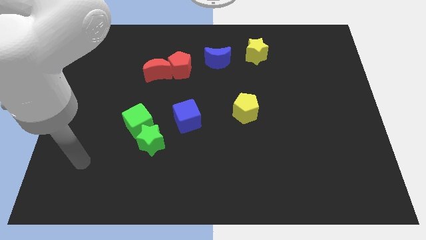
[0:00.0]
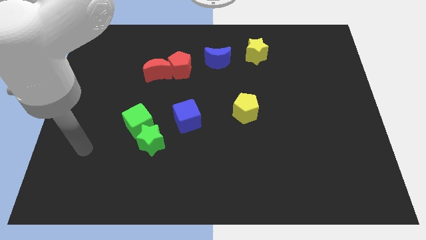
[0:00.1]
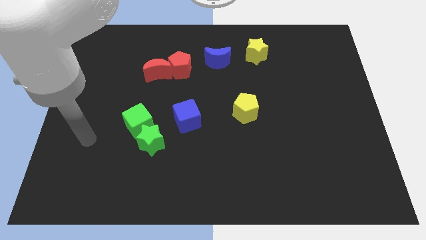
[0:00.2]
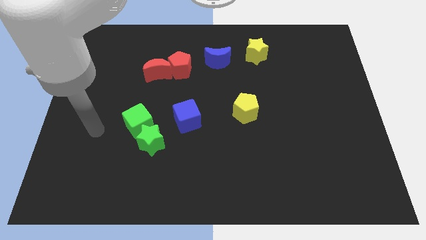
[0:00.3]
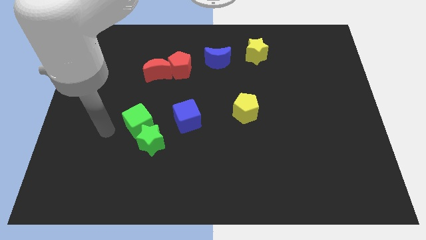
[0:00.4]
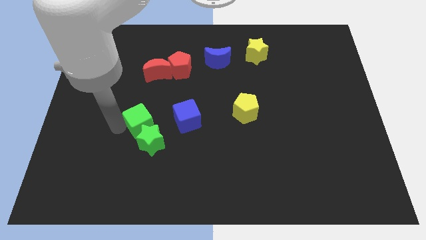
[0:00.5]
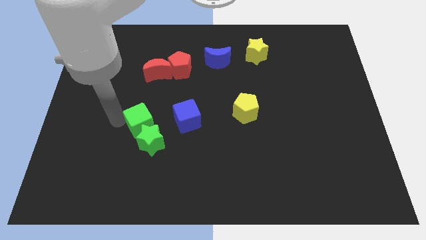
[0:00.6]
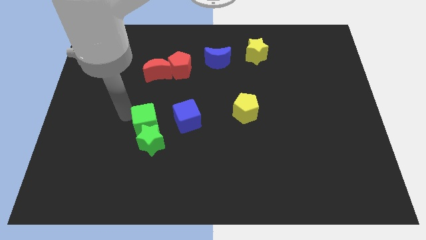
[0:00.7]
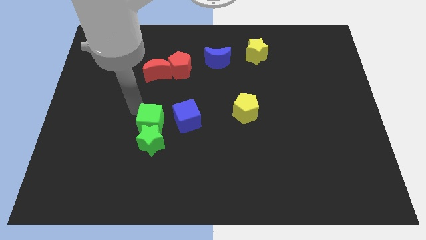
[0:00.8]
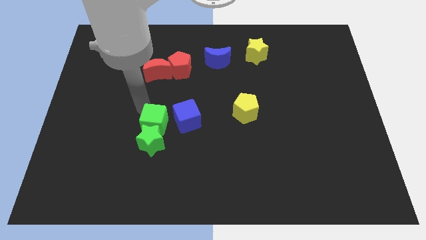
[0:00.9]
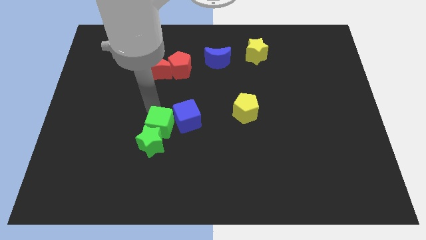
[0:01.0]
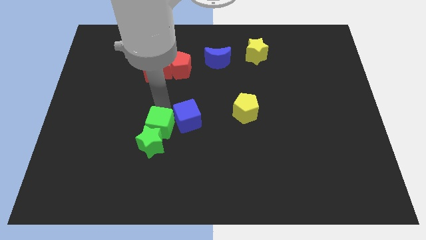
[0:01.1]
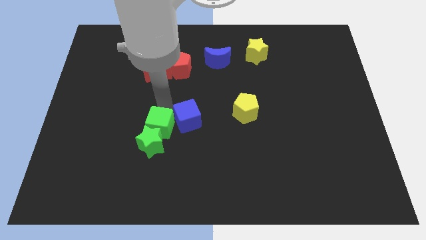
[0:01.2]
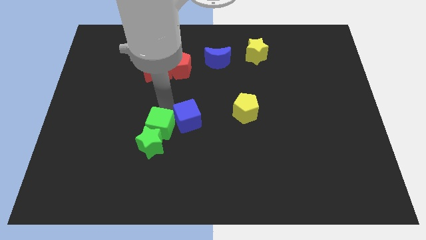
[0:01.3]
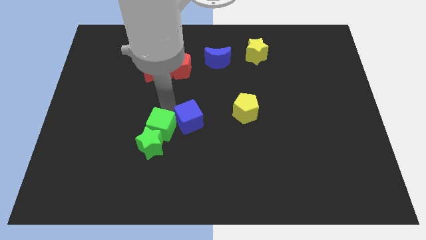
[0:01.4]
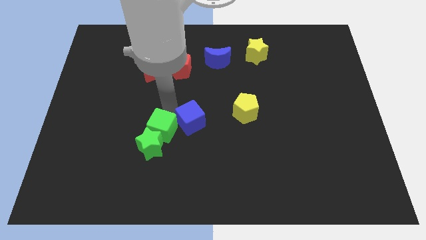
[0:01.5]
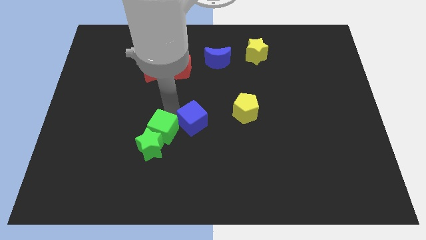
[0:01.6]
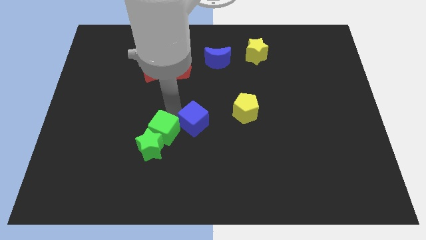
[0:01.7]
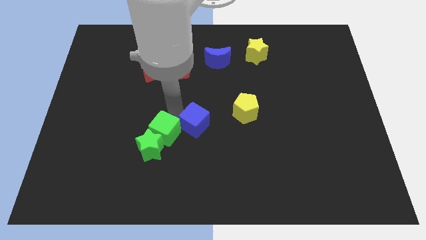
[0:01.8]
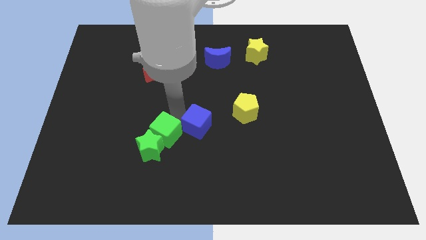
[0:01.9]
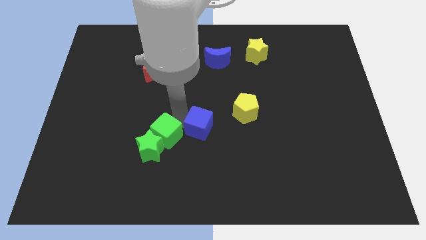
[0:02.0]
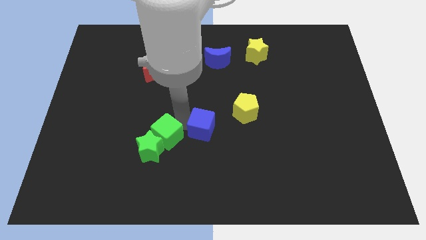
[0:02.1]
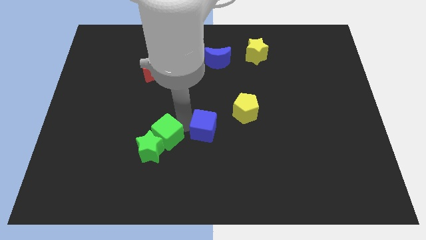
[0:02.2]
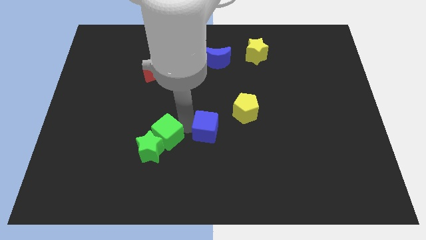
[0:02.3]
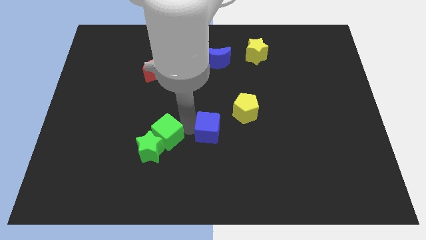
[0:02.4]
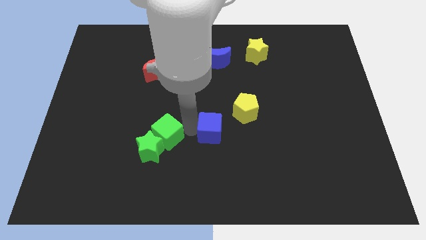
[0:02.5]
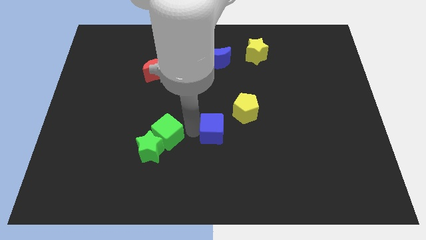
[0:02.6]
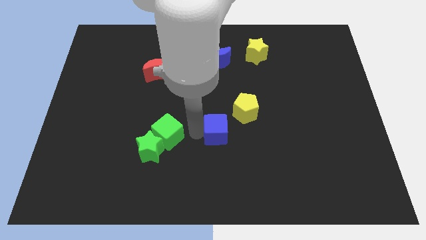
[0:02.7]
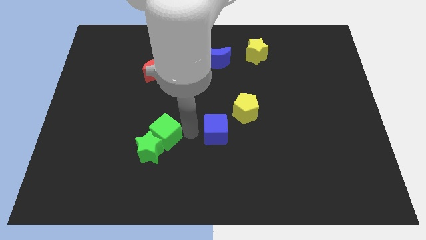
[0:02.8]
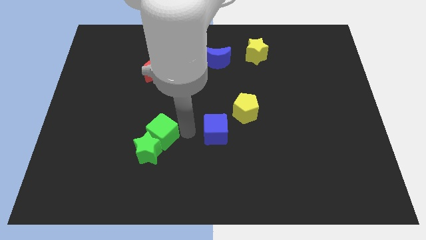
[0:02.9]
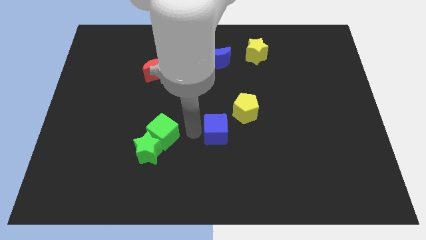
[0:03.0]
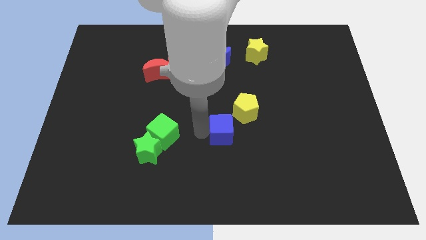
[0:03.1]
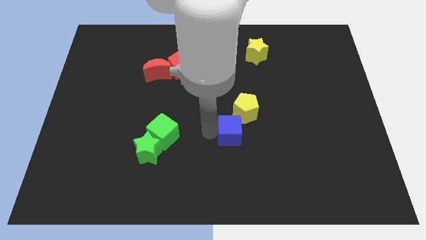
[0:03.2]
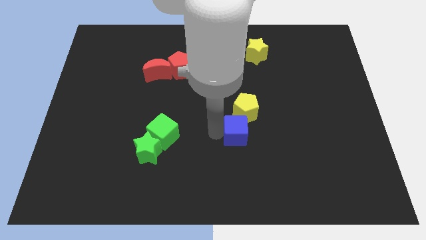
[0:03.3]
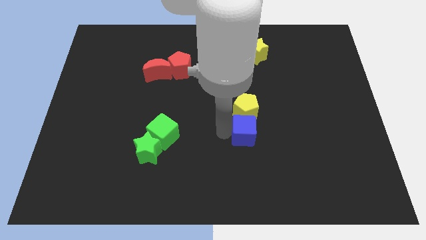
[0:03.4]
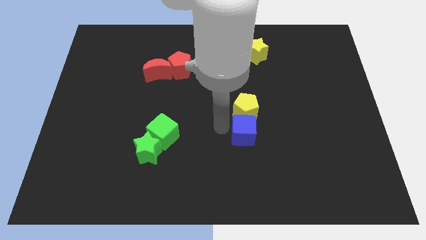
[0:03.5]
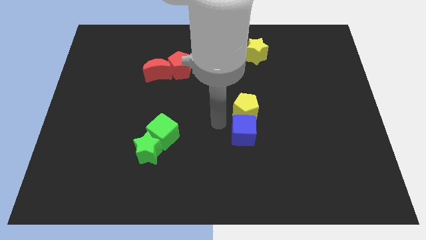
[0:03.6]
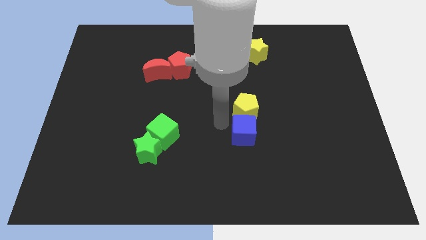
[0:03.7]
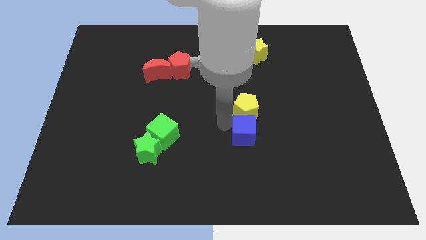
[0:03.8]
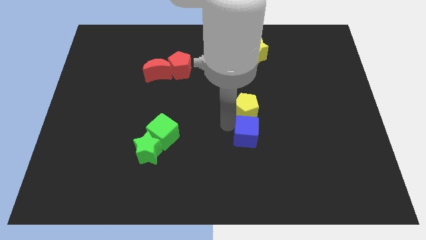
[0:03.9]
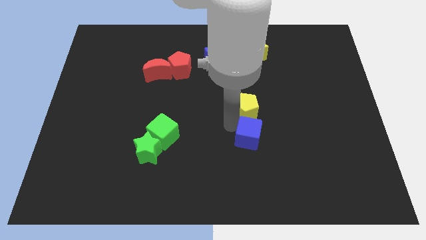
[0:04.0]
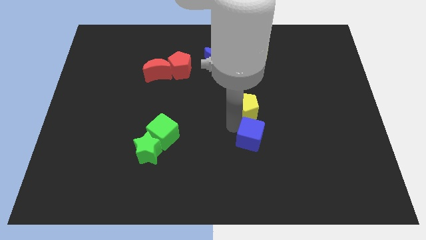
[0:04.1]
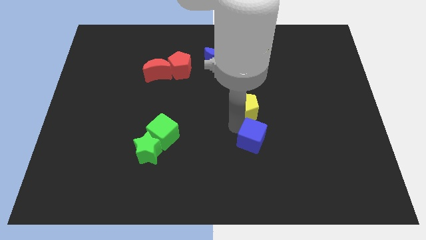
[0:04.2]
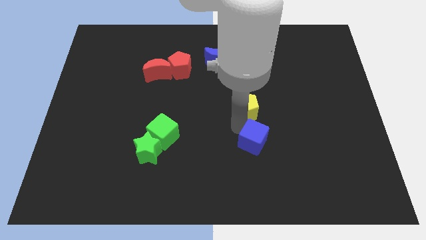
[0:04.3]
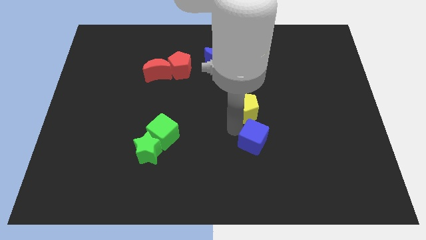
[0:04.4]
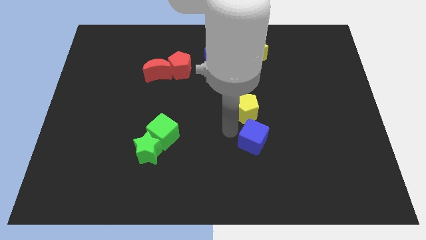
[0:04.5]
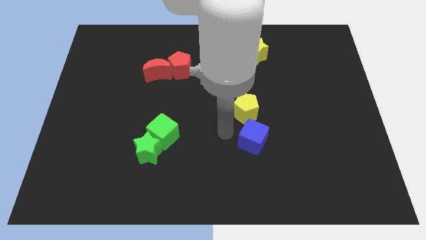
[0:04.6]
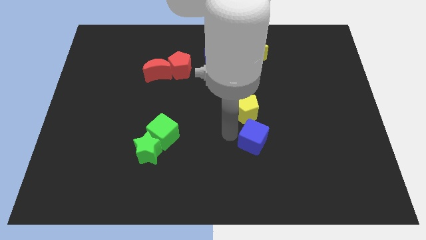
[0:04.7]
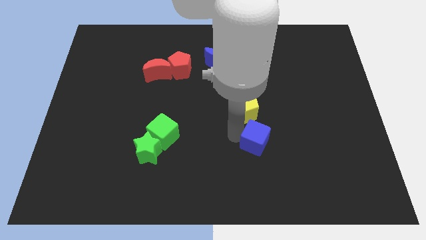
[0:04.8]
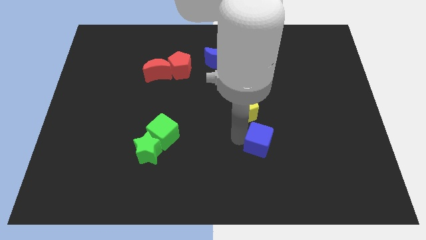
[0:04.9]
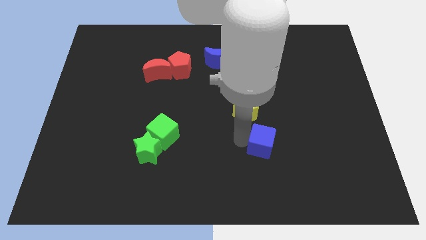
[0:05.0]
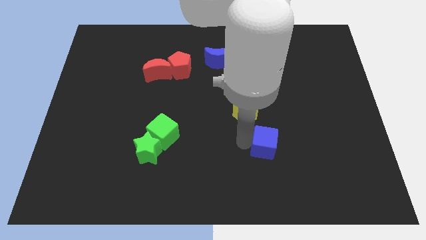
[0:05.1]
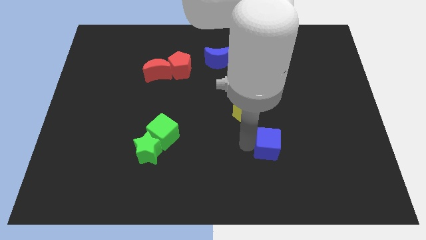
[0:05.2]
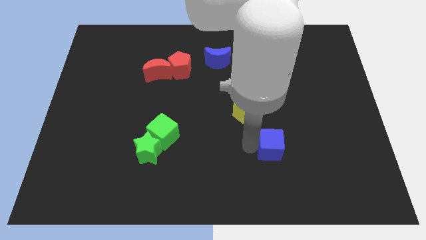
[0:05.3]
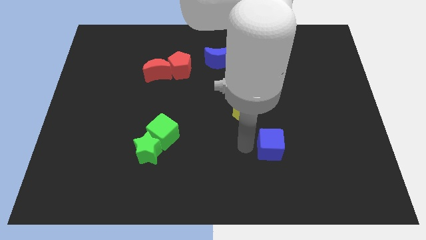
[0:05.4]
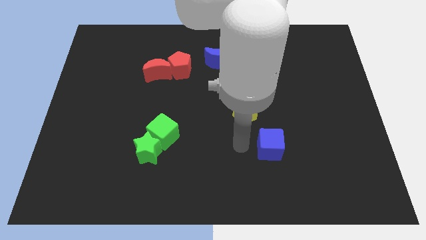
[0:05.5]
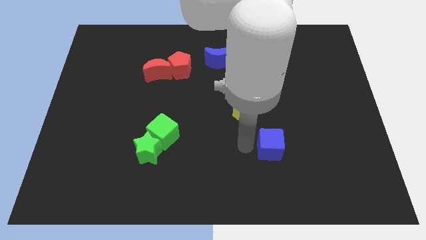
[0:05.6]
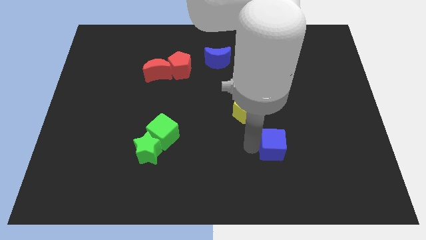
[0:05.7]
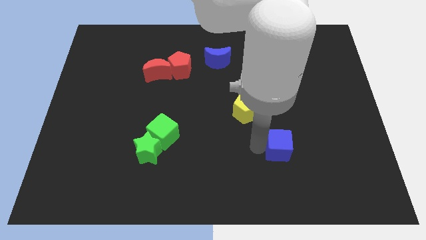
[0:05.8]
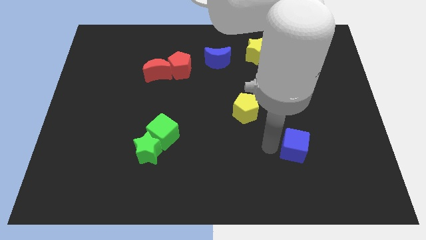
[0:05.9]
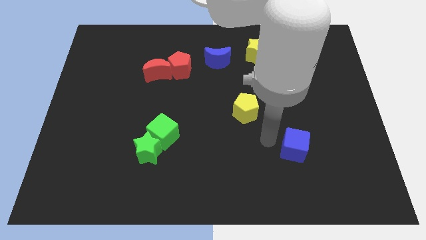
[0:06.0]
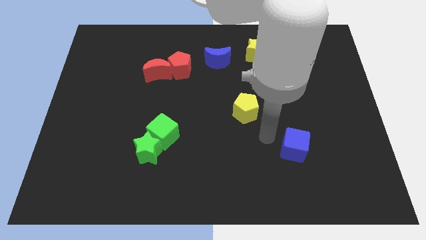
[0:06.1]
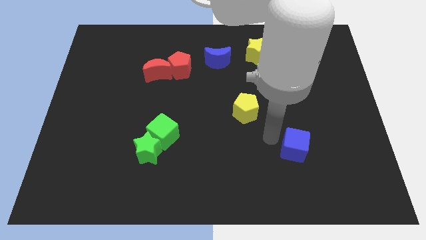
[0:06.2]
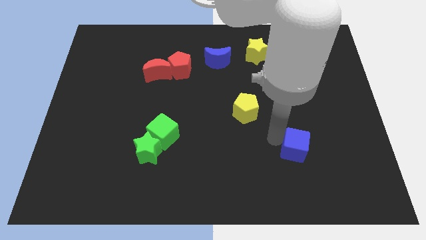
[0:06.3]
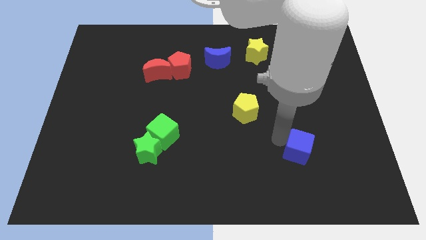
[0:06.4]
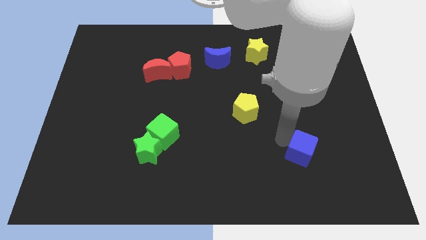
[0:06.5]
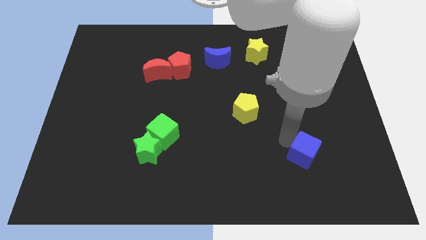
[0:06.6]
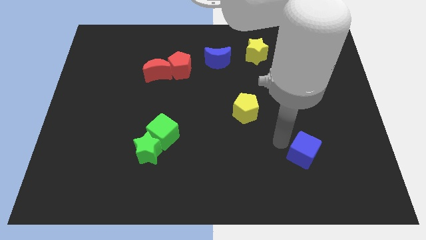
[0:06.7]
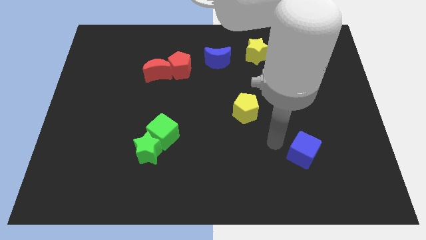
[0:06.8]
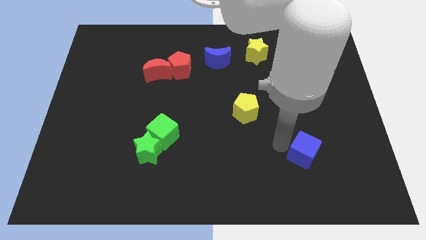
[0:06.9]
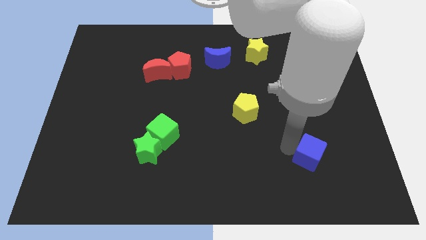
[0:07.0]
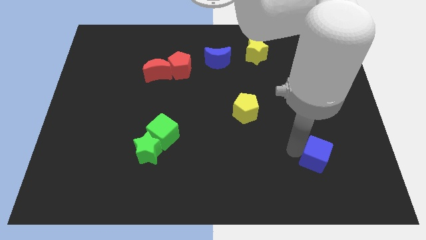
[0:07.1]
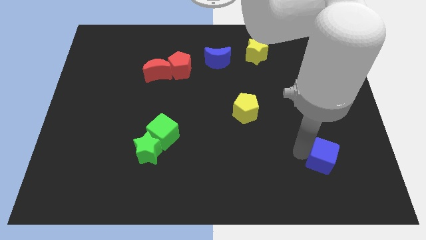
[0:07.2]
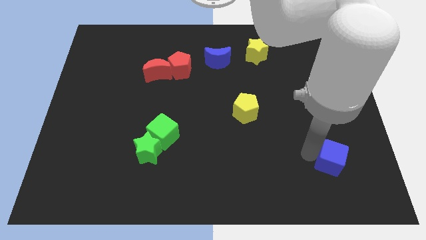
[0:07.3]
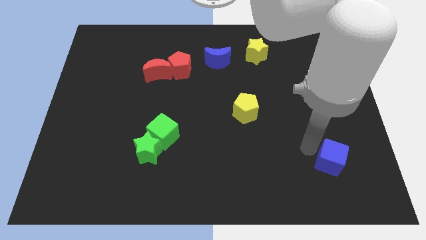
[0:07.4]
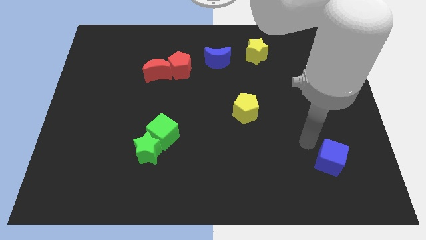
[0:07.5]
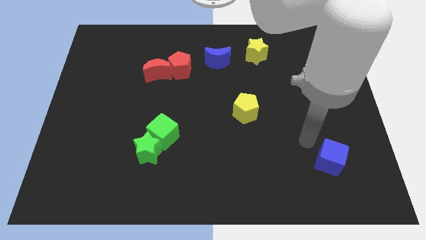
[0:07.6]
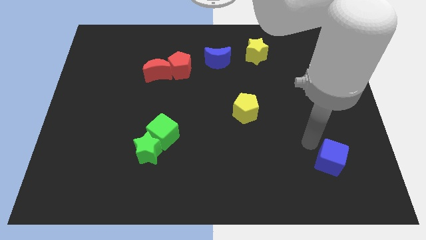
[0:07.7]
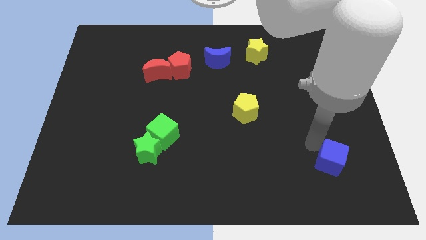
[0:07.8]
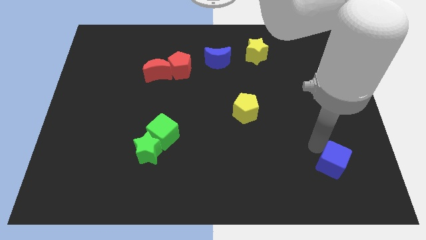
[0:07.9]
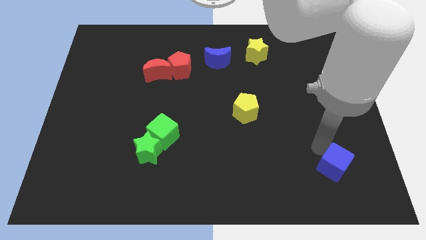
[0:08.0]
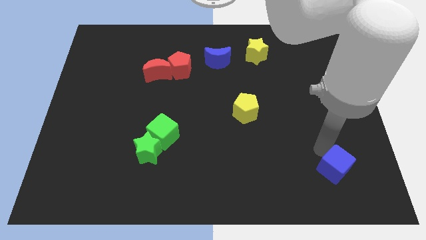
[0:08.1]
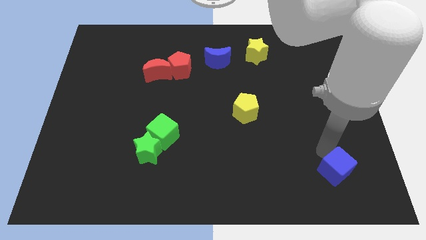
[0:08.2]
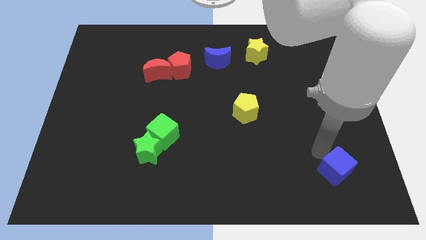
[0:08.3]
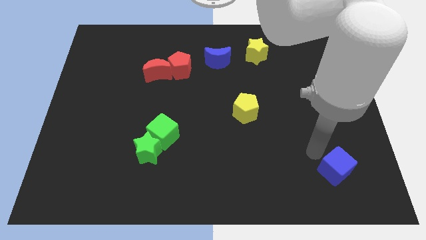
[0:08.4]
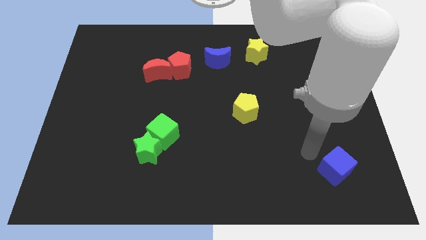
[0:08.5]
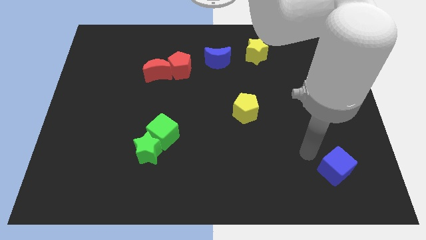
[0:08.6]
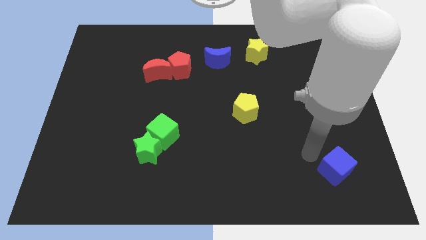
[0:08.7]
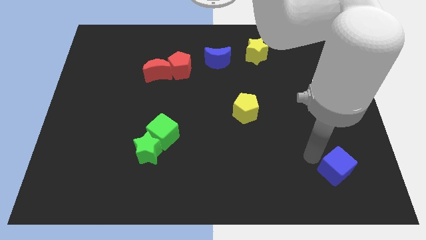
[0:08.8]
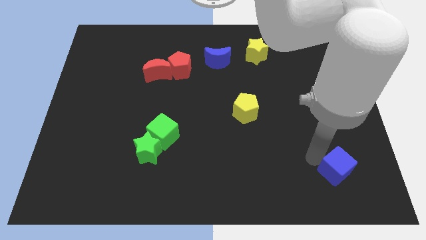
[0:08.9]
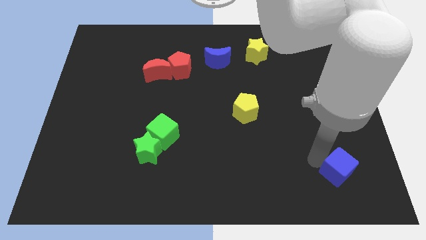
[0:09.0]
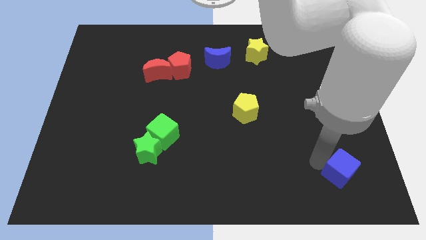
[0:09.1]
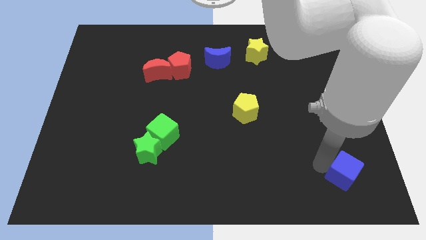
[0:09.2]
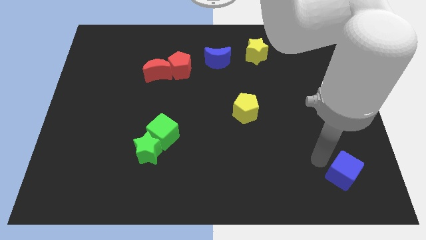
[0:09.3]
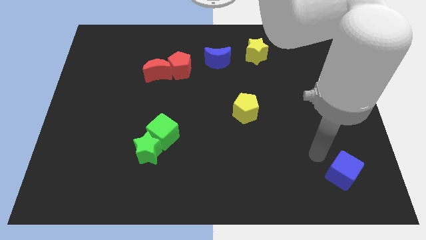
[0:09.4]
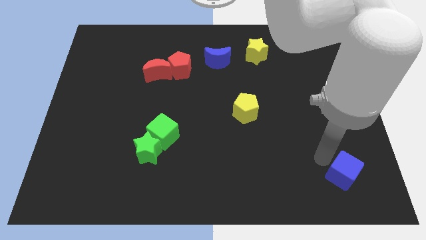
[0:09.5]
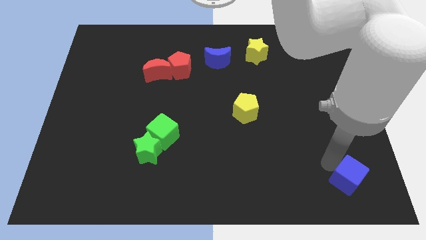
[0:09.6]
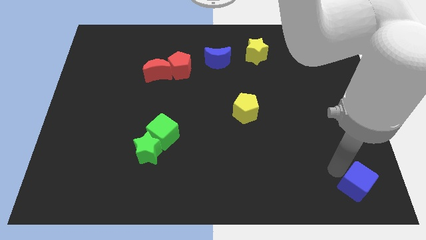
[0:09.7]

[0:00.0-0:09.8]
move the blue cube to the lower right corner
